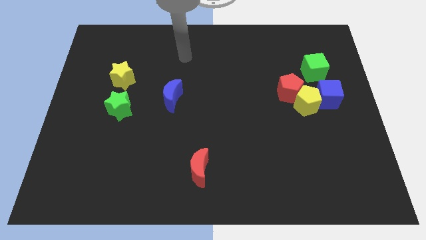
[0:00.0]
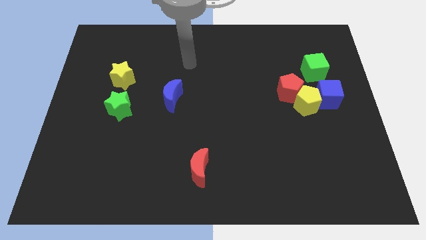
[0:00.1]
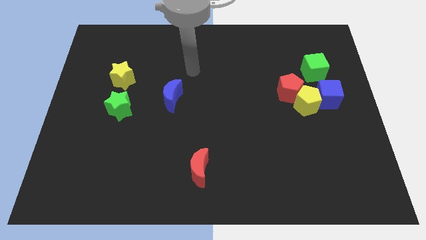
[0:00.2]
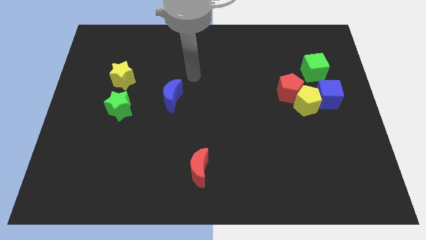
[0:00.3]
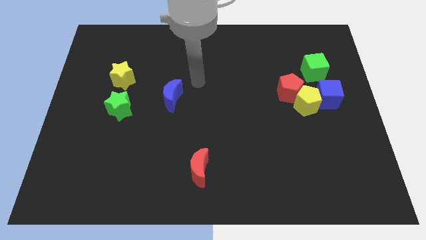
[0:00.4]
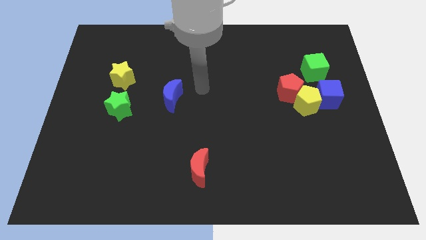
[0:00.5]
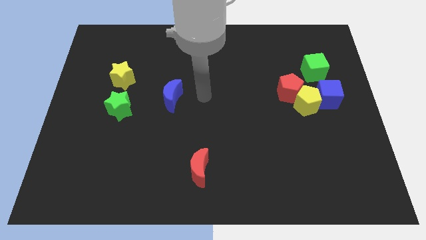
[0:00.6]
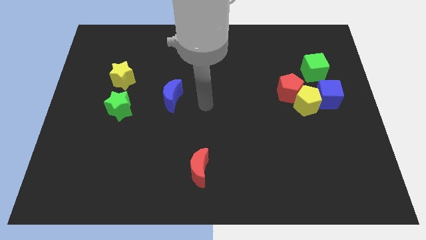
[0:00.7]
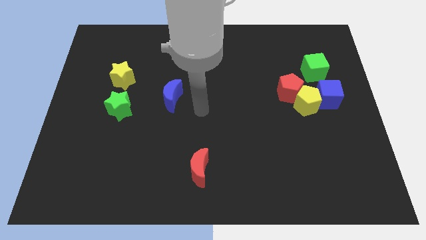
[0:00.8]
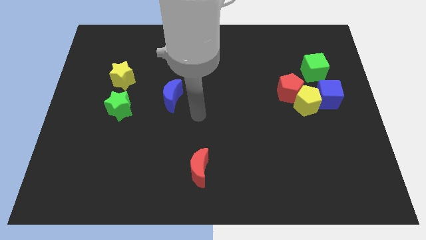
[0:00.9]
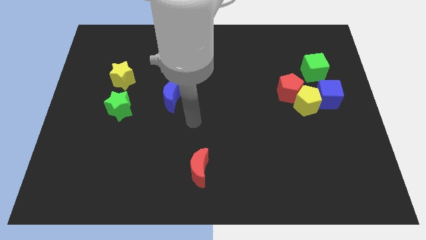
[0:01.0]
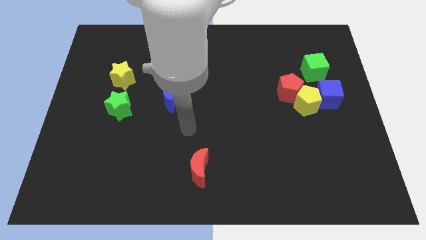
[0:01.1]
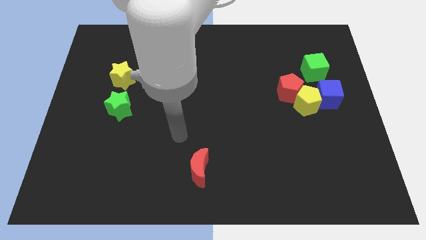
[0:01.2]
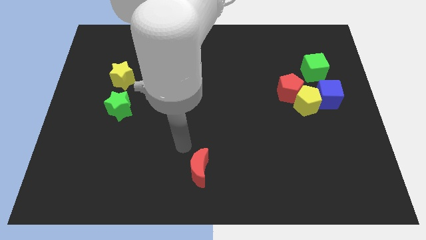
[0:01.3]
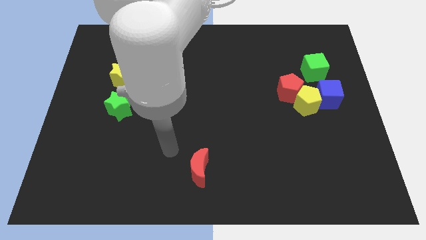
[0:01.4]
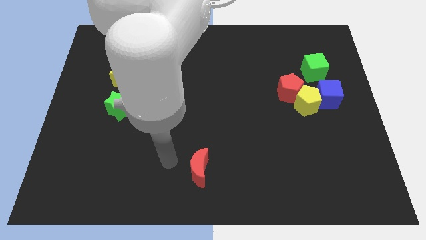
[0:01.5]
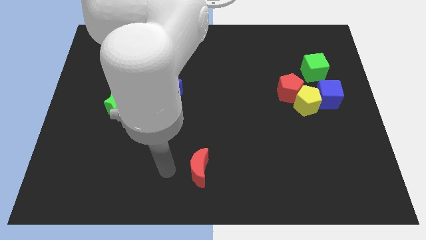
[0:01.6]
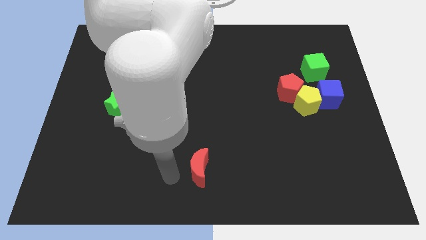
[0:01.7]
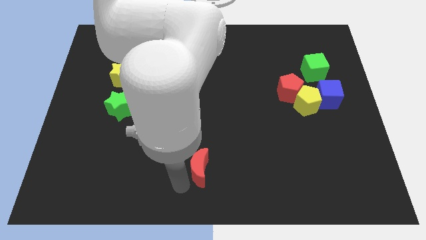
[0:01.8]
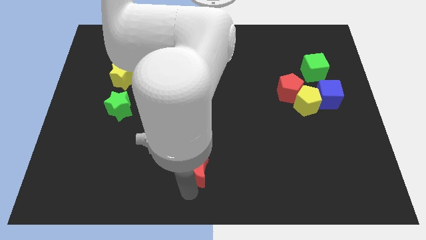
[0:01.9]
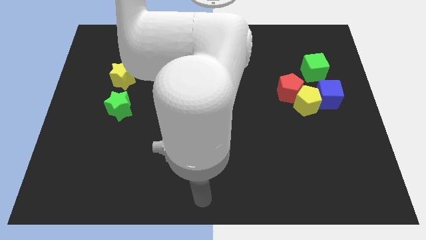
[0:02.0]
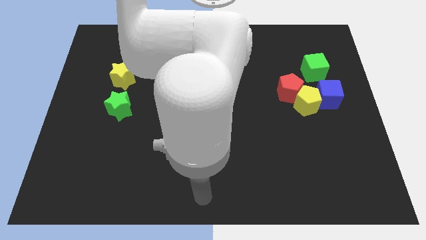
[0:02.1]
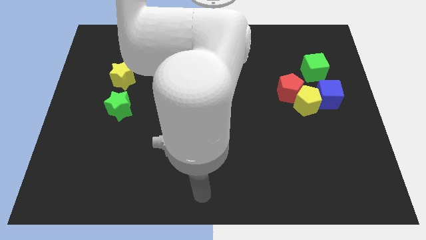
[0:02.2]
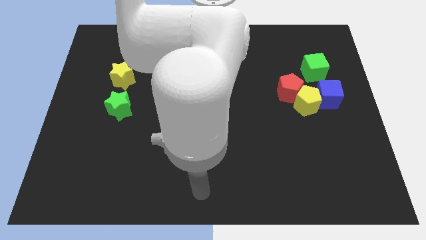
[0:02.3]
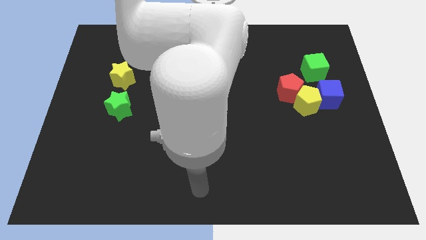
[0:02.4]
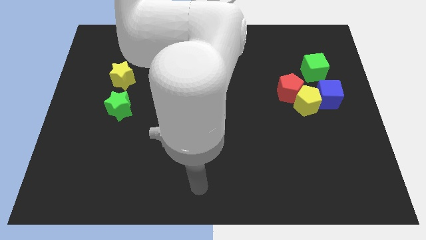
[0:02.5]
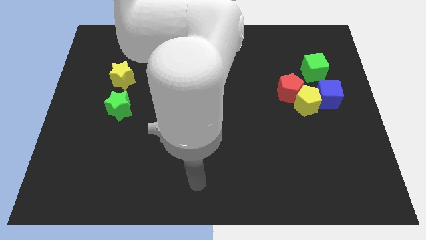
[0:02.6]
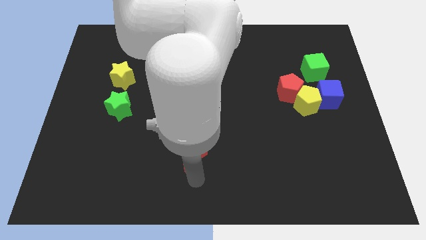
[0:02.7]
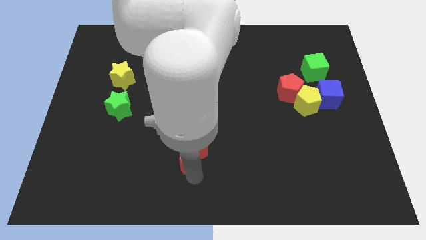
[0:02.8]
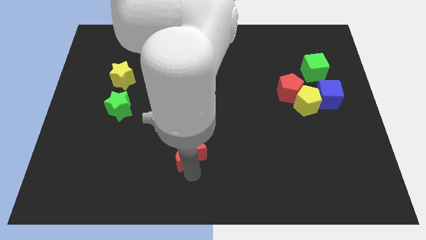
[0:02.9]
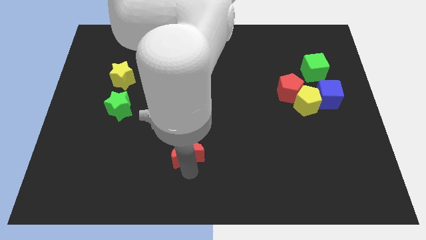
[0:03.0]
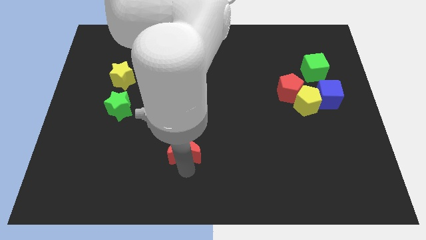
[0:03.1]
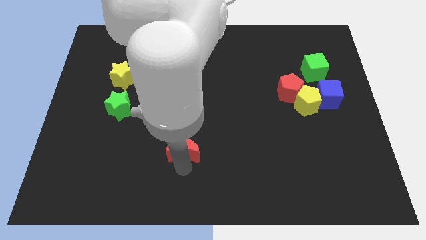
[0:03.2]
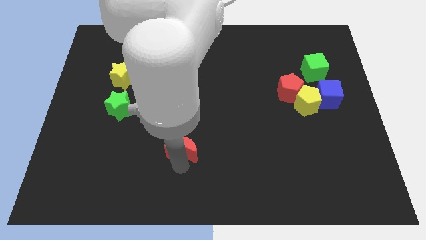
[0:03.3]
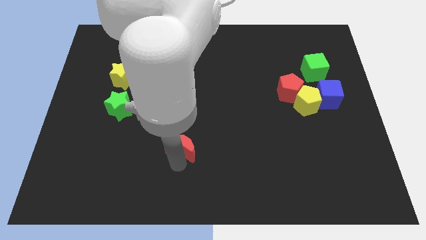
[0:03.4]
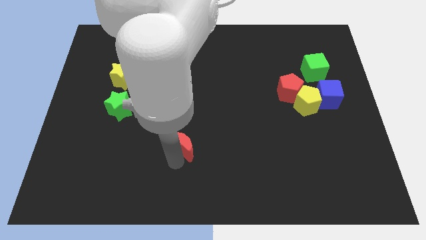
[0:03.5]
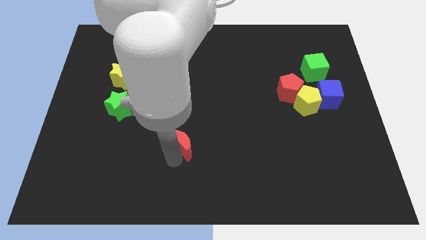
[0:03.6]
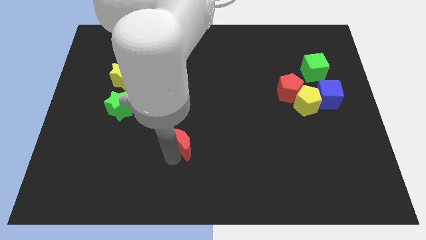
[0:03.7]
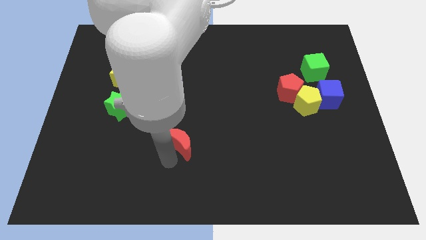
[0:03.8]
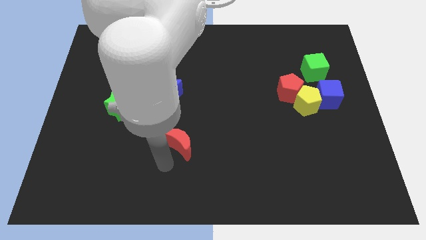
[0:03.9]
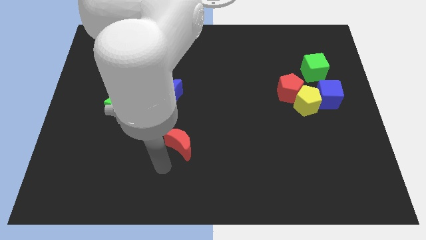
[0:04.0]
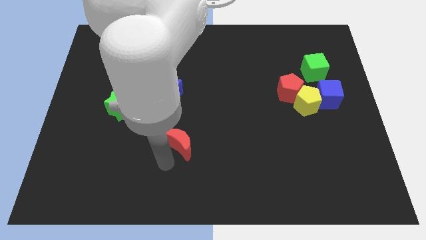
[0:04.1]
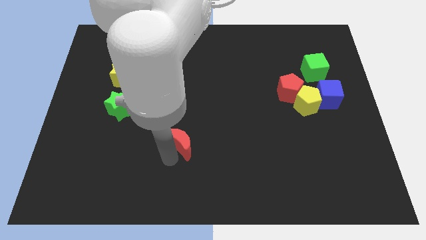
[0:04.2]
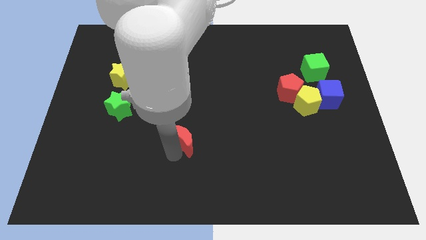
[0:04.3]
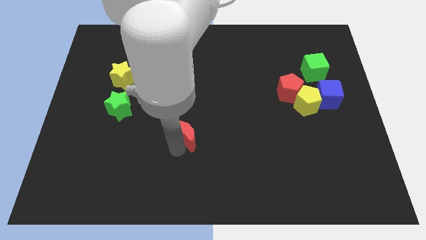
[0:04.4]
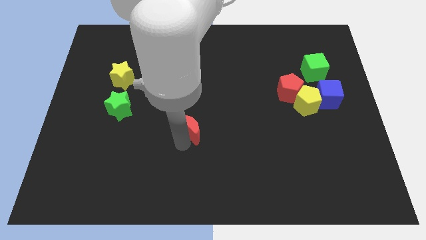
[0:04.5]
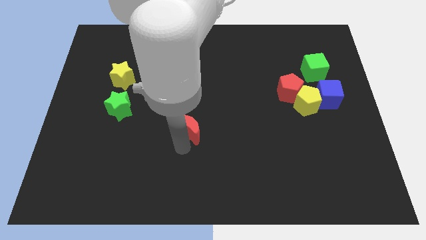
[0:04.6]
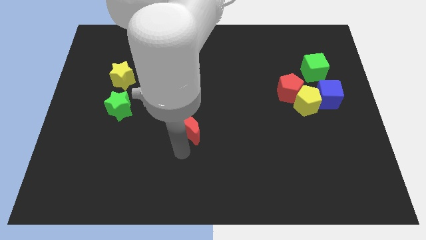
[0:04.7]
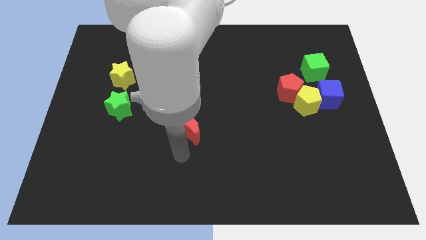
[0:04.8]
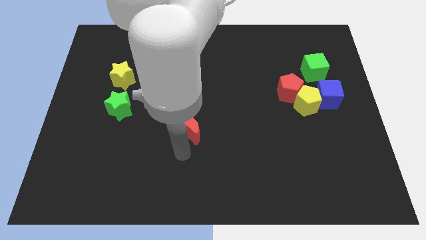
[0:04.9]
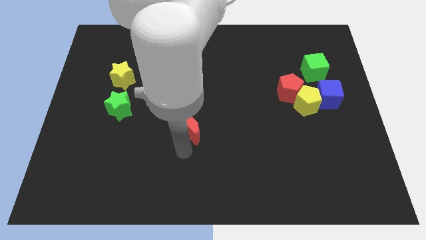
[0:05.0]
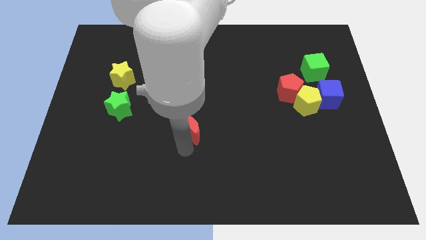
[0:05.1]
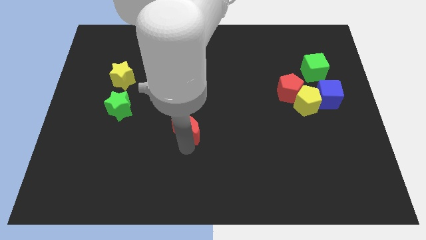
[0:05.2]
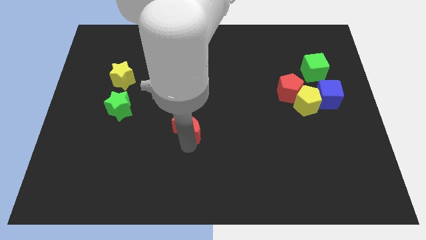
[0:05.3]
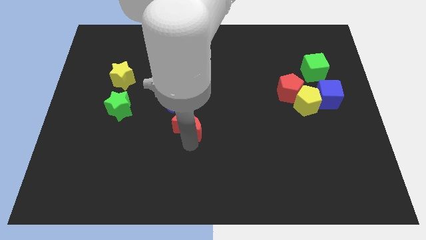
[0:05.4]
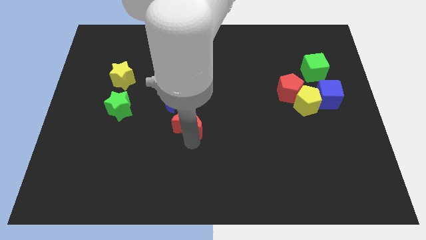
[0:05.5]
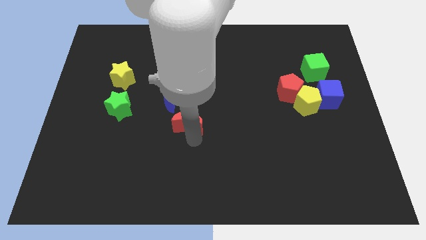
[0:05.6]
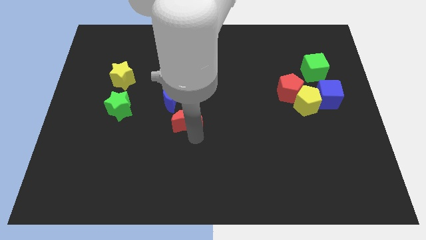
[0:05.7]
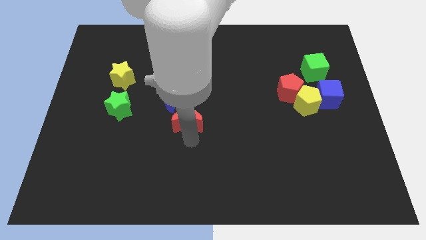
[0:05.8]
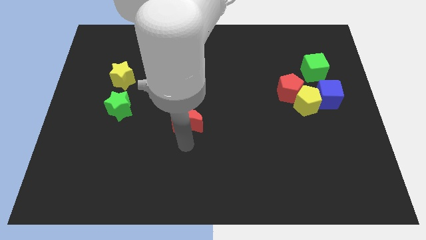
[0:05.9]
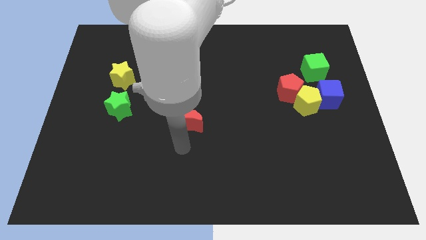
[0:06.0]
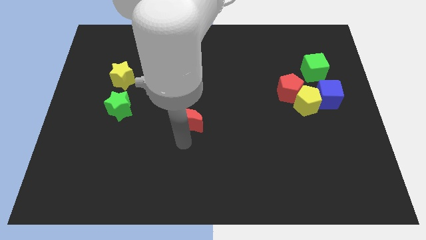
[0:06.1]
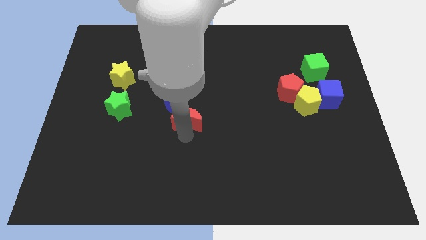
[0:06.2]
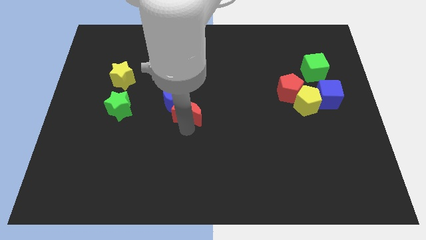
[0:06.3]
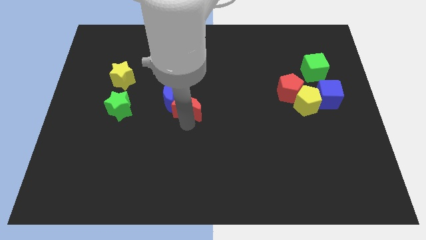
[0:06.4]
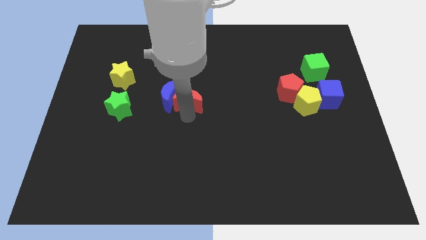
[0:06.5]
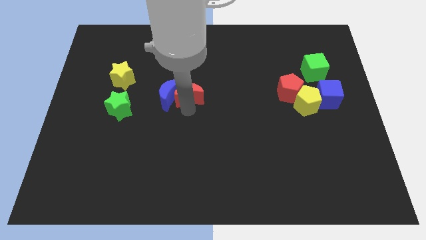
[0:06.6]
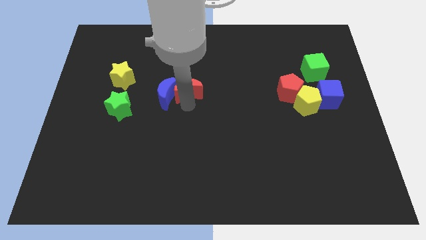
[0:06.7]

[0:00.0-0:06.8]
move the red moon up

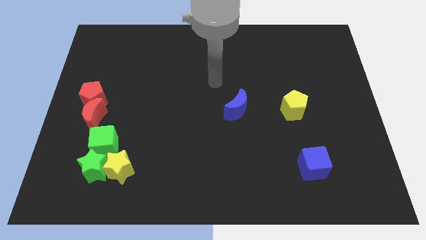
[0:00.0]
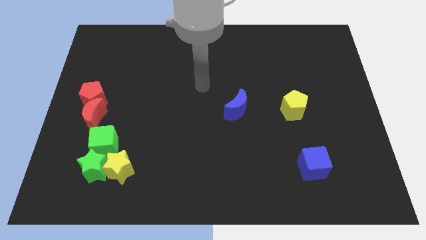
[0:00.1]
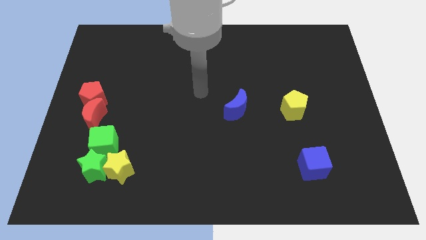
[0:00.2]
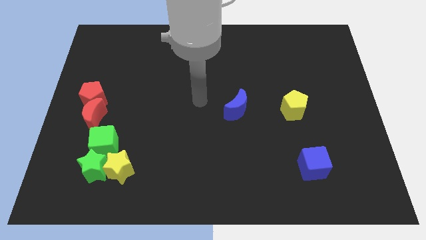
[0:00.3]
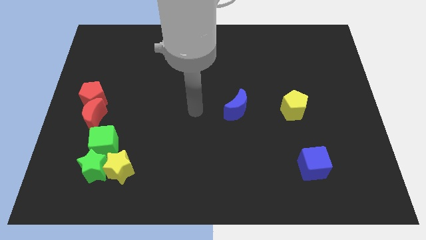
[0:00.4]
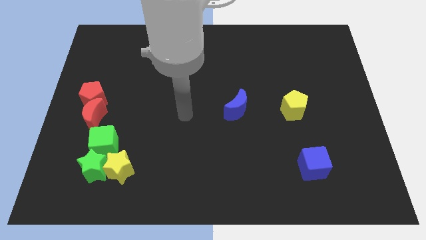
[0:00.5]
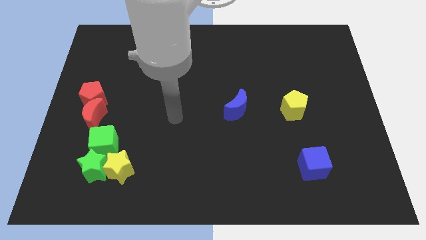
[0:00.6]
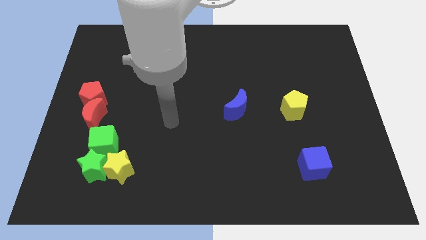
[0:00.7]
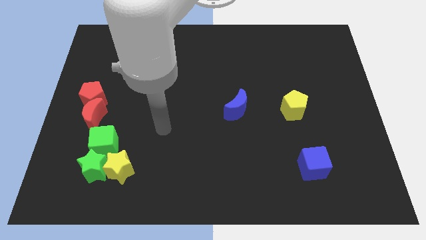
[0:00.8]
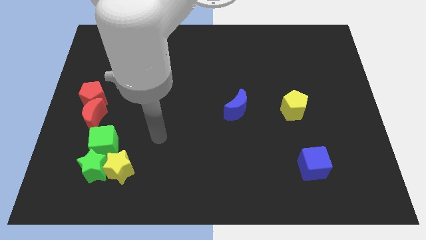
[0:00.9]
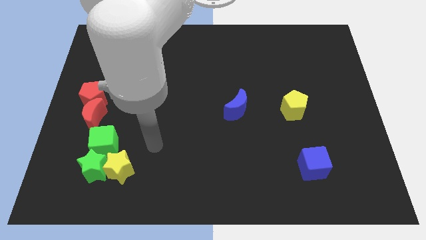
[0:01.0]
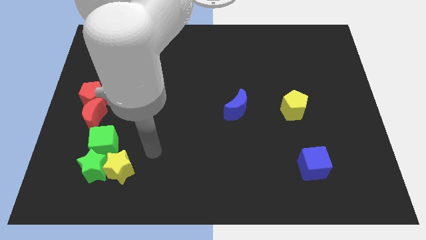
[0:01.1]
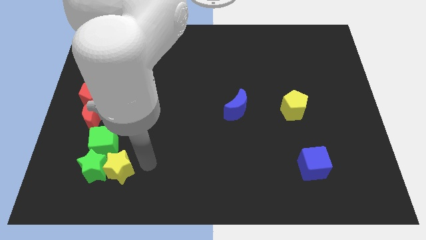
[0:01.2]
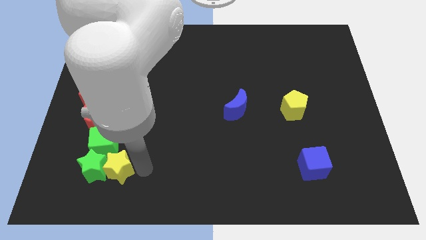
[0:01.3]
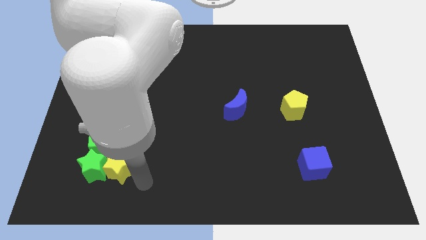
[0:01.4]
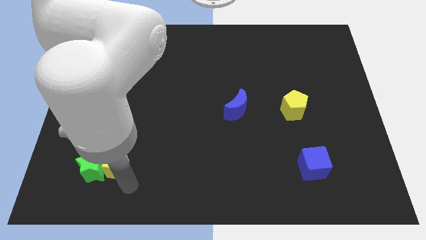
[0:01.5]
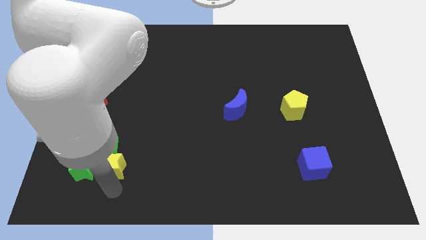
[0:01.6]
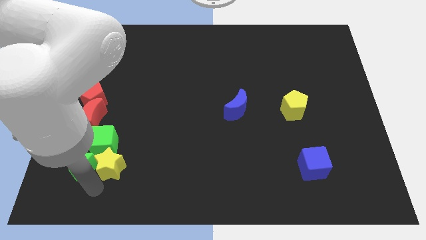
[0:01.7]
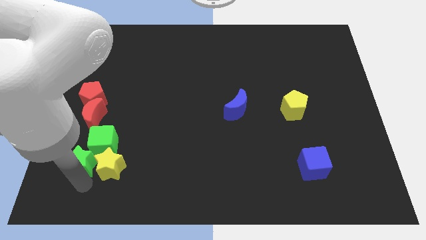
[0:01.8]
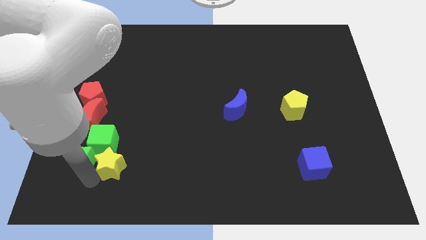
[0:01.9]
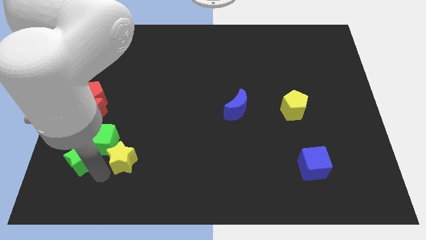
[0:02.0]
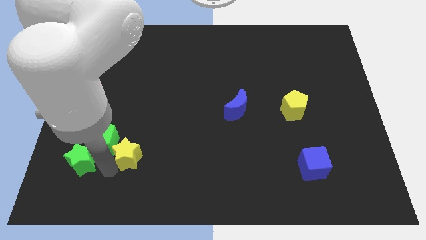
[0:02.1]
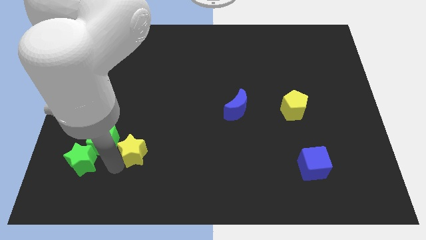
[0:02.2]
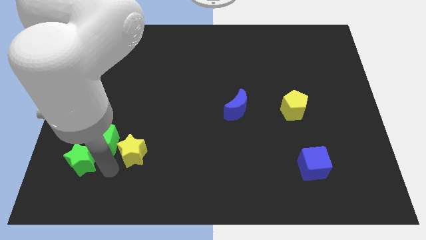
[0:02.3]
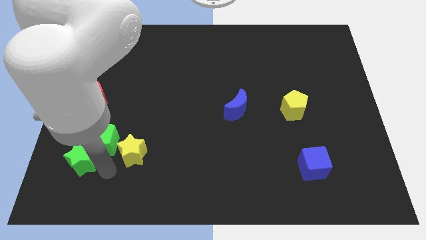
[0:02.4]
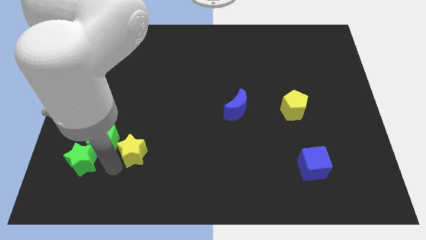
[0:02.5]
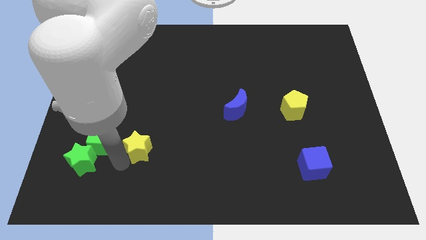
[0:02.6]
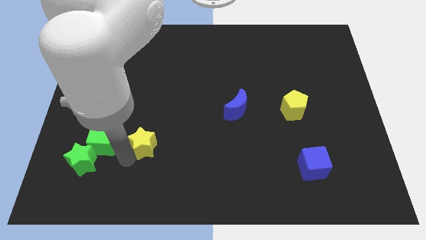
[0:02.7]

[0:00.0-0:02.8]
slide the yellow star upwards and then right a little
